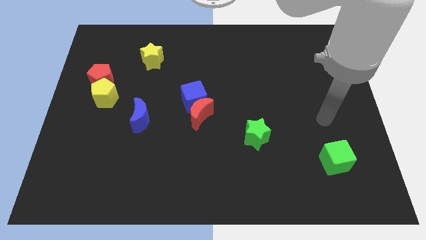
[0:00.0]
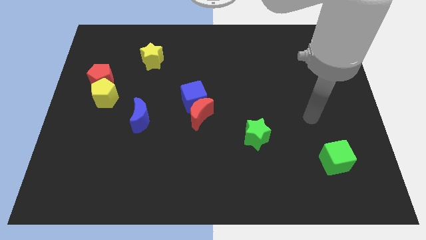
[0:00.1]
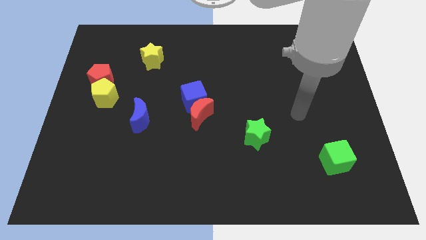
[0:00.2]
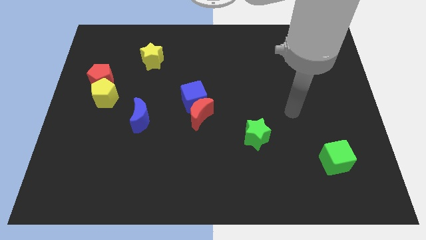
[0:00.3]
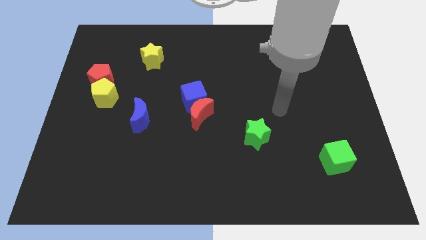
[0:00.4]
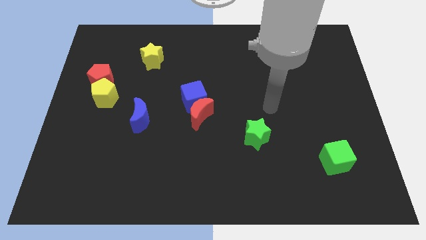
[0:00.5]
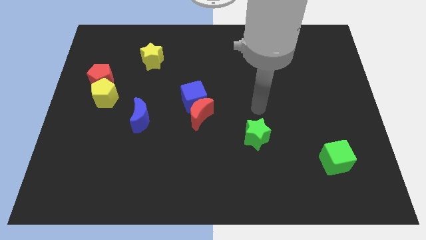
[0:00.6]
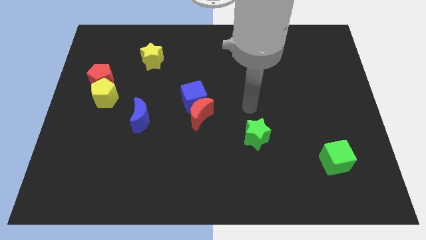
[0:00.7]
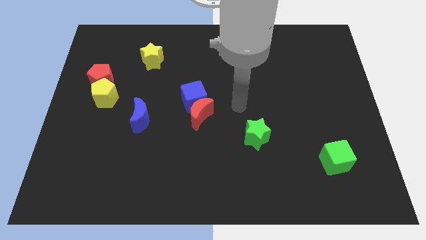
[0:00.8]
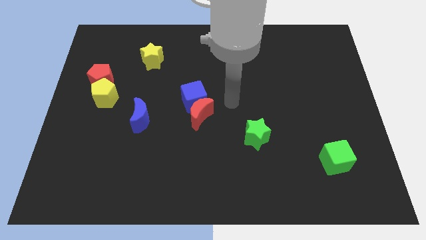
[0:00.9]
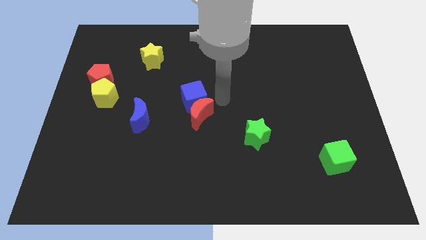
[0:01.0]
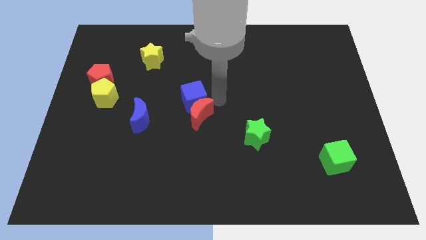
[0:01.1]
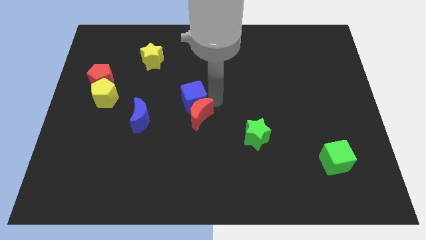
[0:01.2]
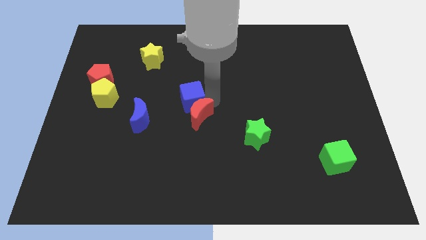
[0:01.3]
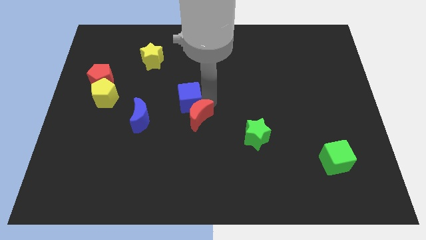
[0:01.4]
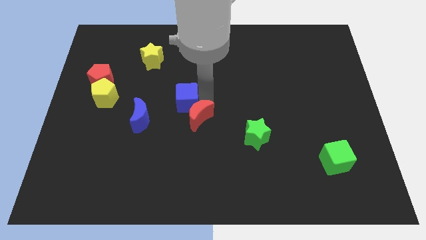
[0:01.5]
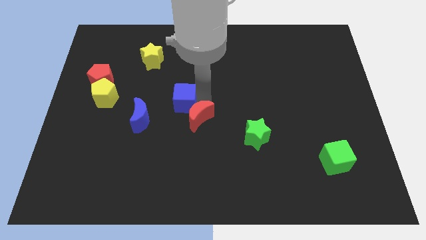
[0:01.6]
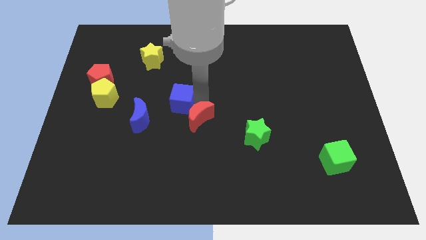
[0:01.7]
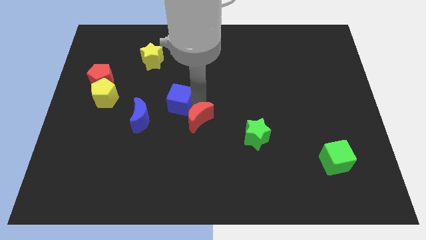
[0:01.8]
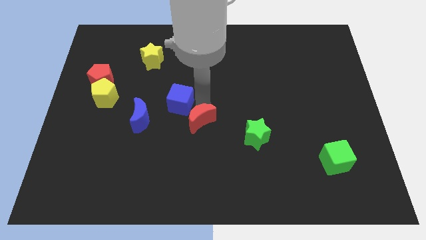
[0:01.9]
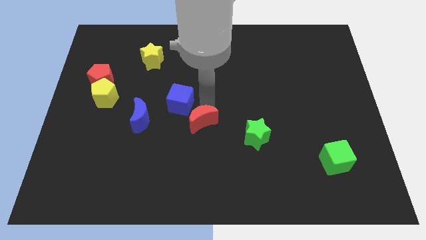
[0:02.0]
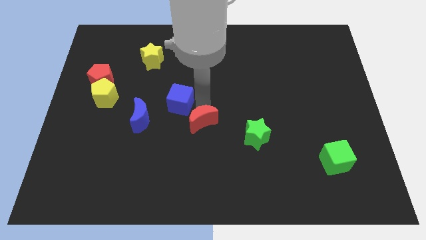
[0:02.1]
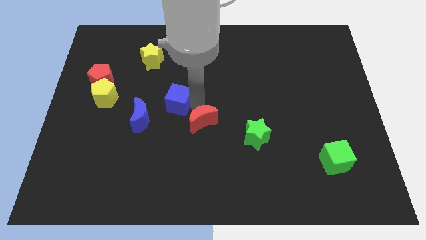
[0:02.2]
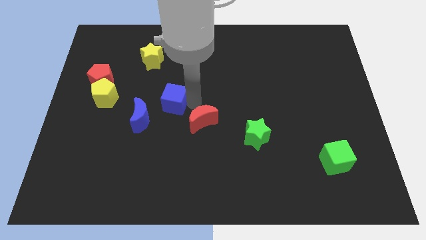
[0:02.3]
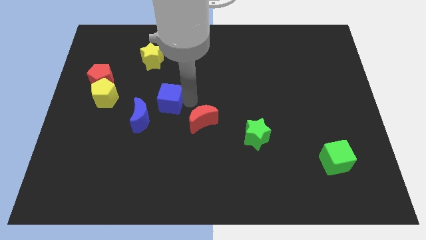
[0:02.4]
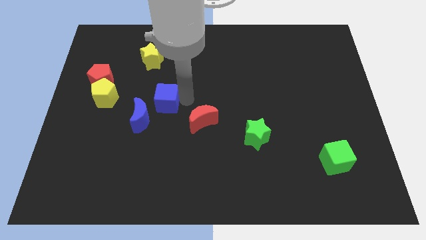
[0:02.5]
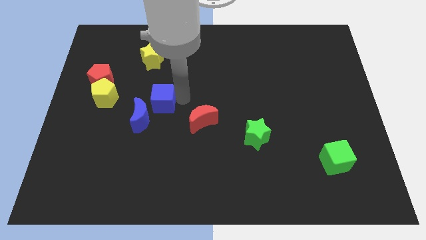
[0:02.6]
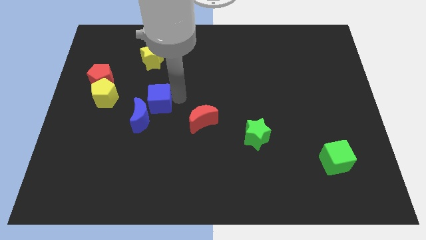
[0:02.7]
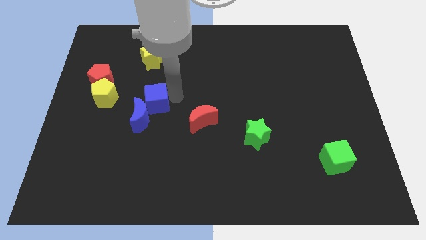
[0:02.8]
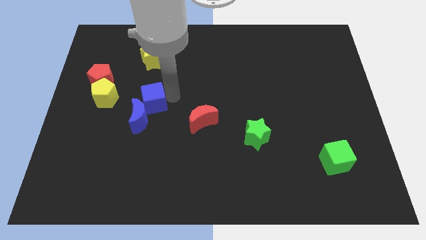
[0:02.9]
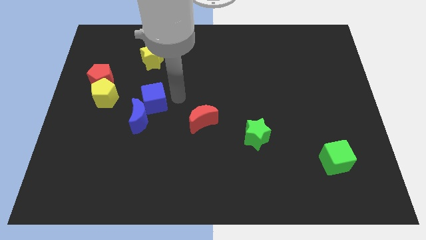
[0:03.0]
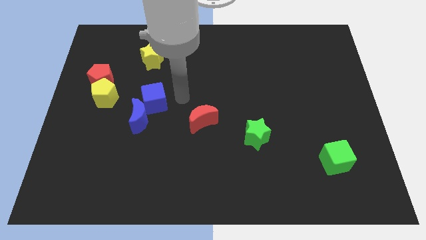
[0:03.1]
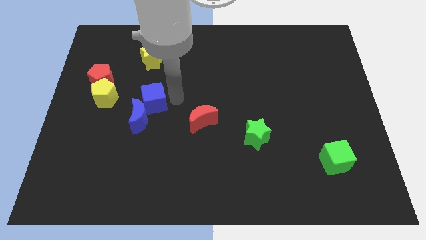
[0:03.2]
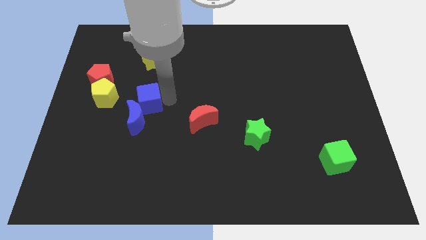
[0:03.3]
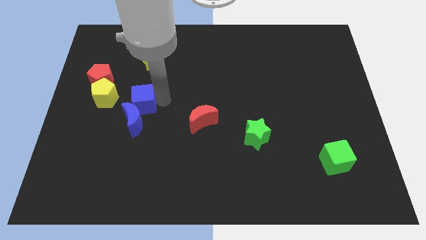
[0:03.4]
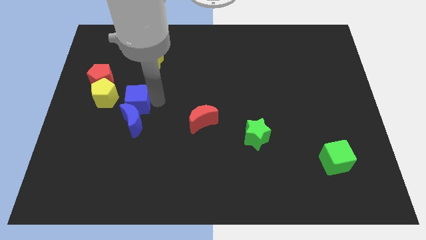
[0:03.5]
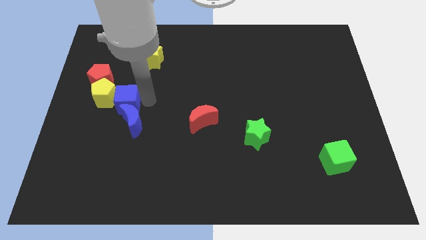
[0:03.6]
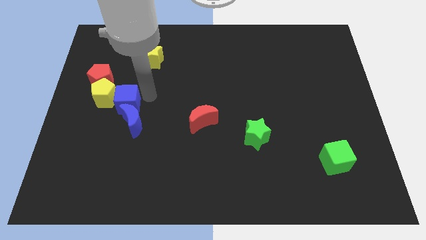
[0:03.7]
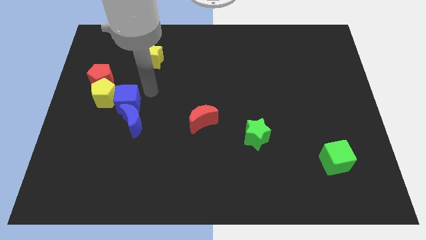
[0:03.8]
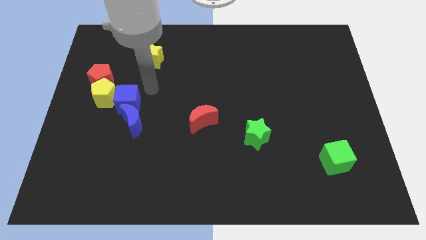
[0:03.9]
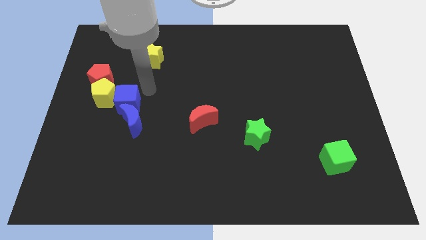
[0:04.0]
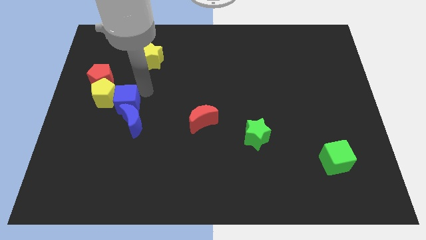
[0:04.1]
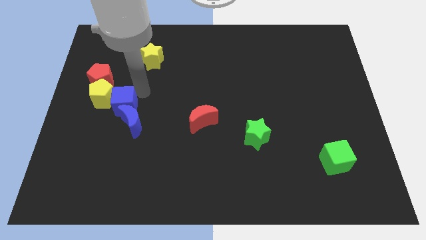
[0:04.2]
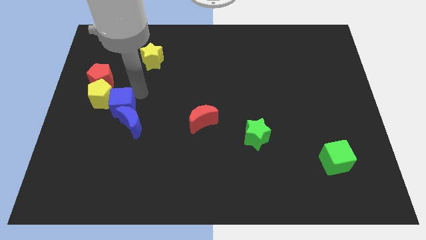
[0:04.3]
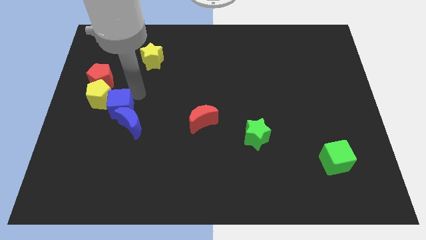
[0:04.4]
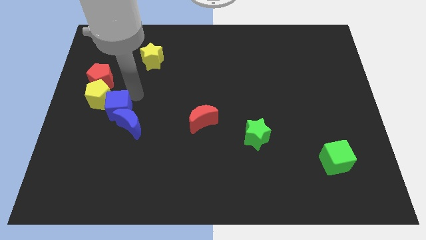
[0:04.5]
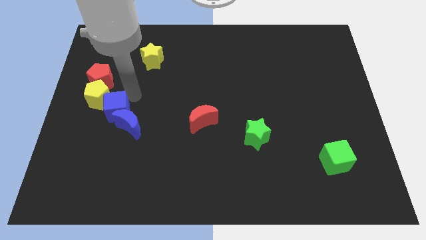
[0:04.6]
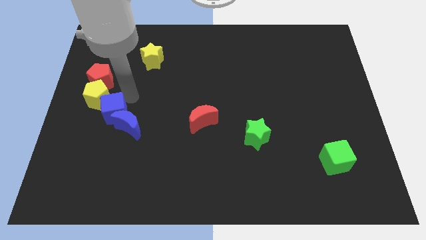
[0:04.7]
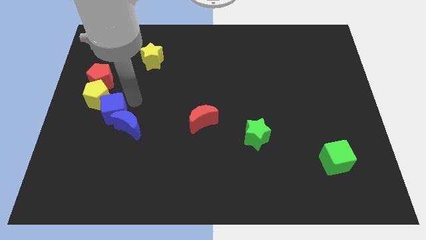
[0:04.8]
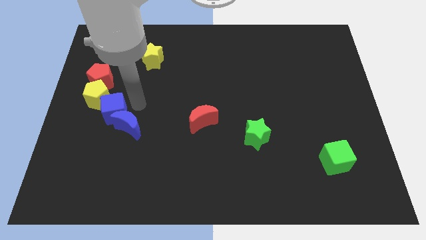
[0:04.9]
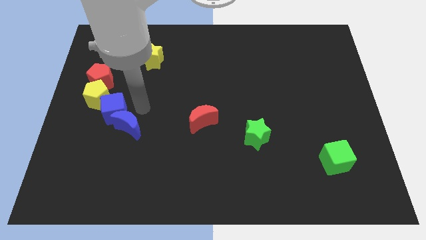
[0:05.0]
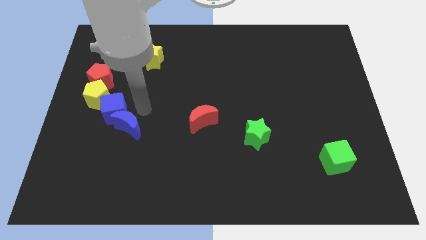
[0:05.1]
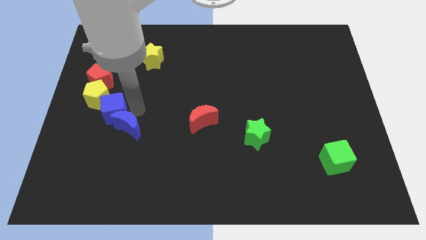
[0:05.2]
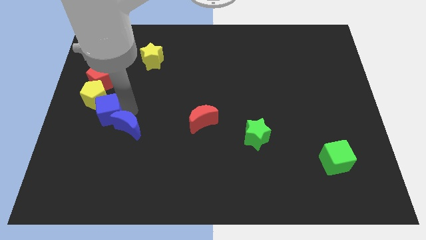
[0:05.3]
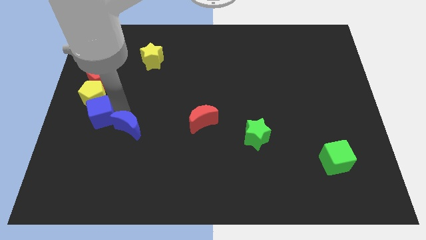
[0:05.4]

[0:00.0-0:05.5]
put the blue cube to the center left
